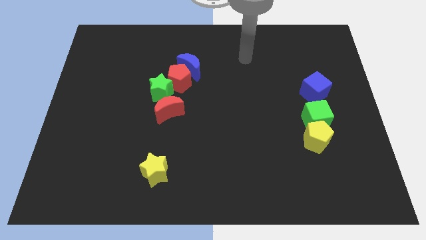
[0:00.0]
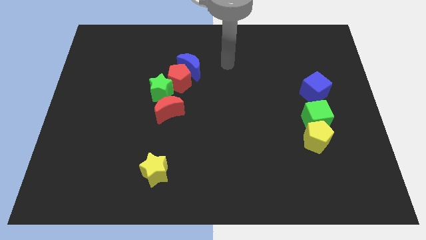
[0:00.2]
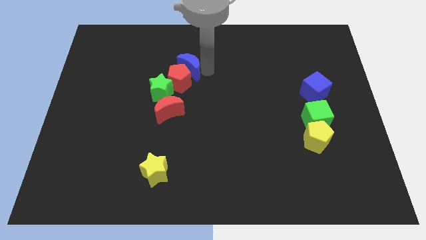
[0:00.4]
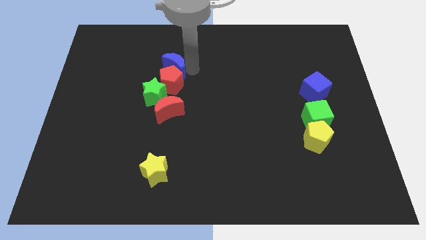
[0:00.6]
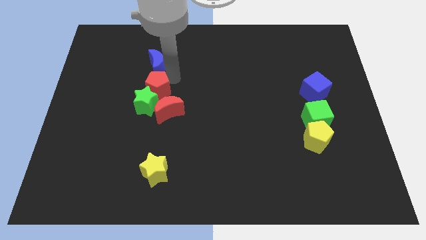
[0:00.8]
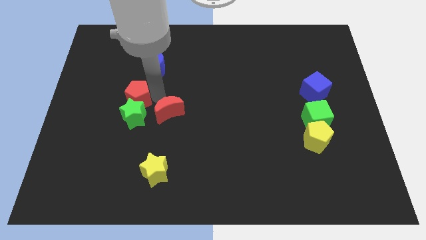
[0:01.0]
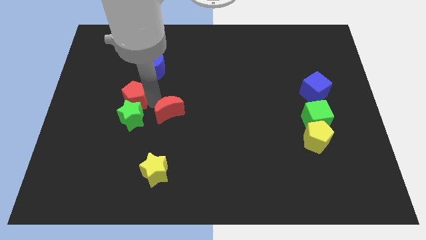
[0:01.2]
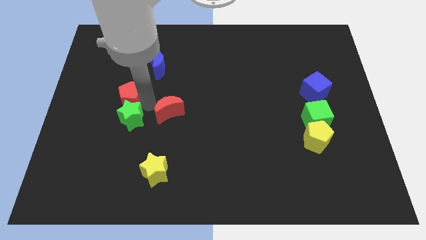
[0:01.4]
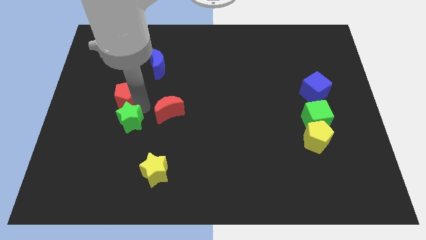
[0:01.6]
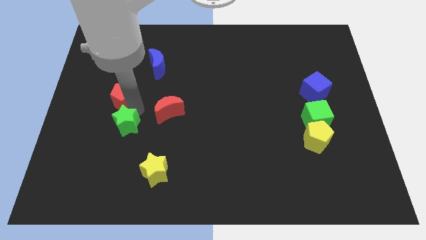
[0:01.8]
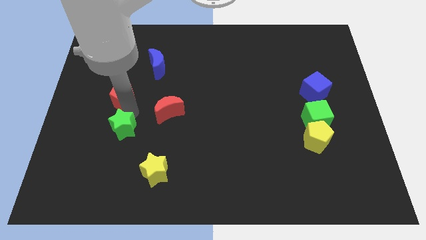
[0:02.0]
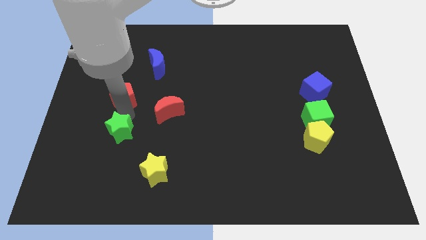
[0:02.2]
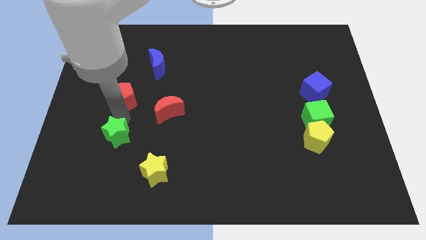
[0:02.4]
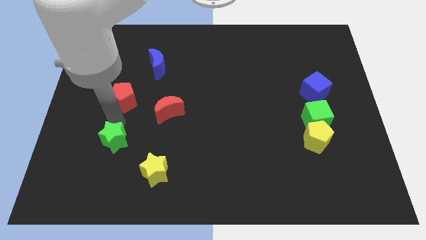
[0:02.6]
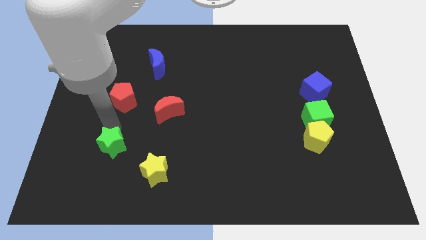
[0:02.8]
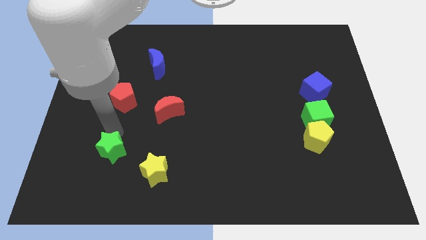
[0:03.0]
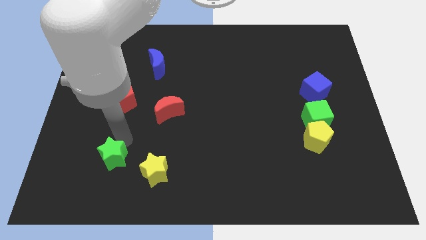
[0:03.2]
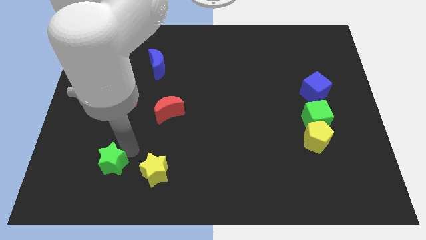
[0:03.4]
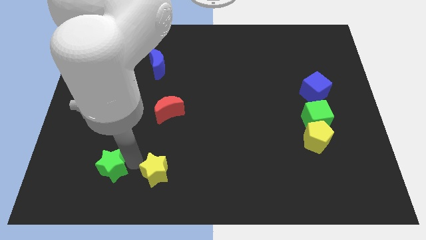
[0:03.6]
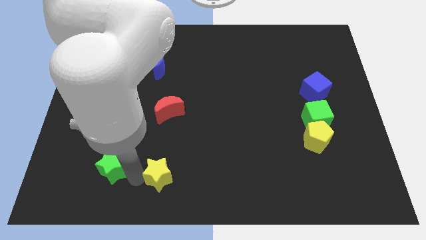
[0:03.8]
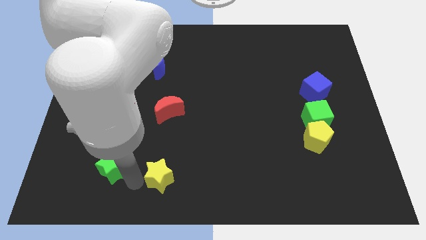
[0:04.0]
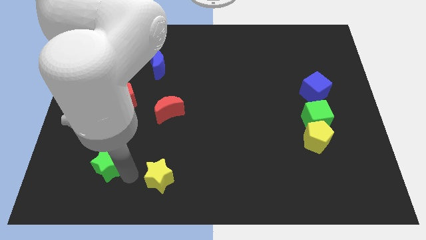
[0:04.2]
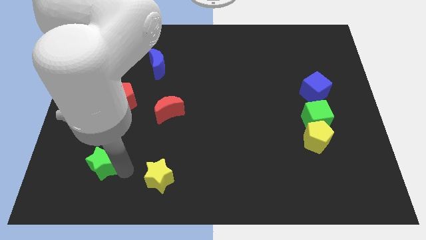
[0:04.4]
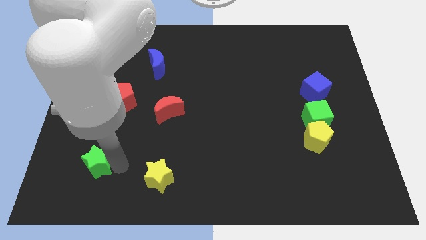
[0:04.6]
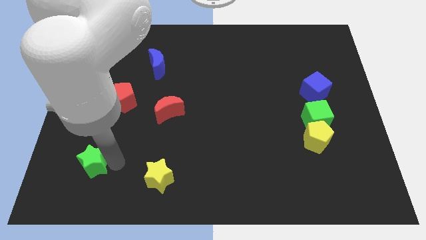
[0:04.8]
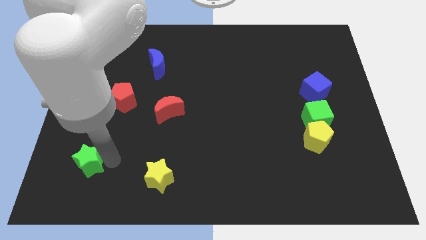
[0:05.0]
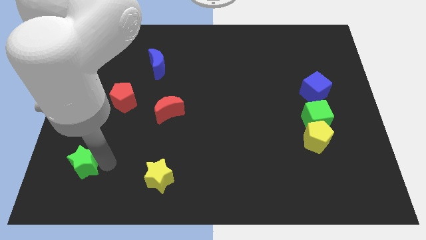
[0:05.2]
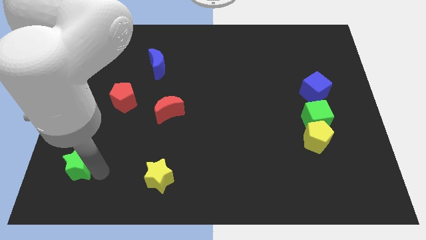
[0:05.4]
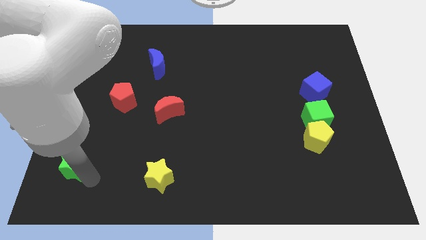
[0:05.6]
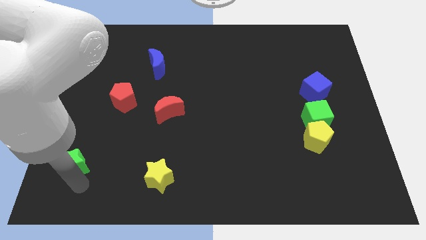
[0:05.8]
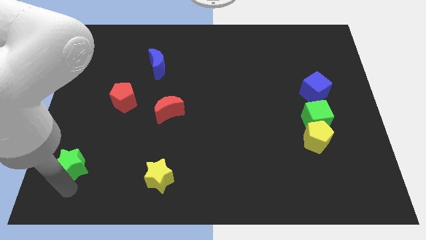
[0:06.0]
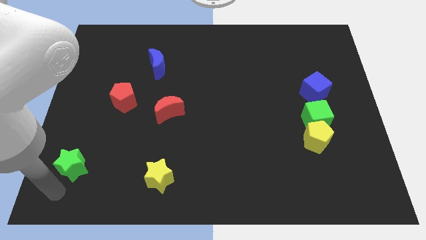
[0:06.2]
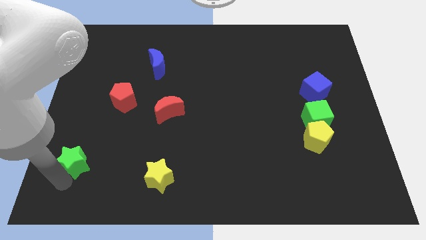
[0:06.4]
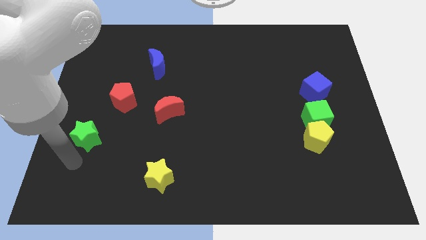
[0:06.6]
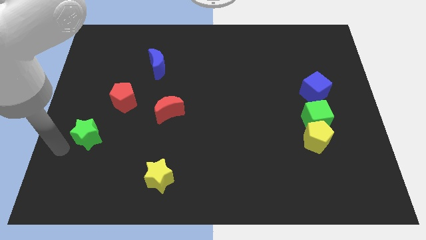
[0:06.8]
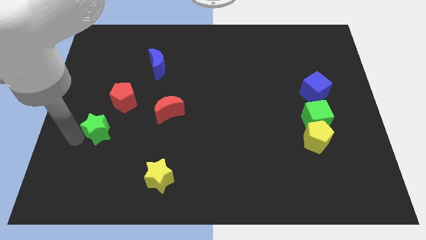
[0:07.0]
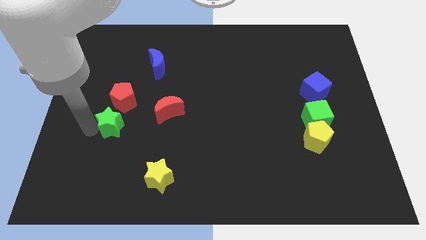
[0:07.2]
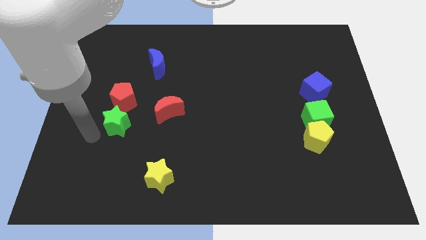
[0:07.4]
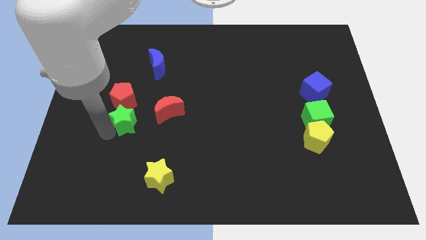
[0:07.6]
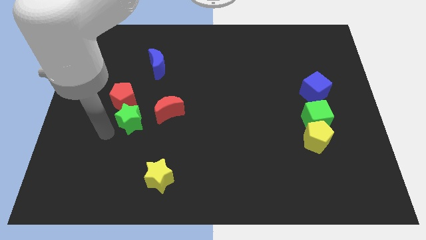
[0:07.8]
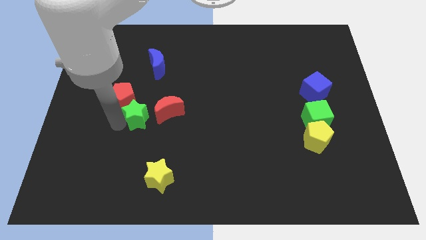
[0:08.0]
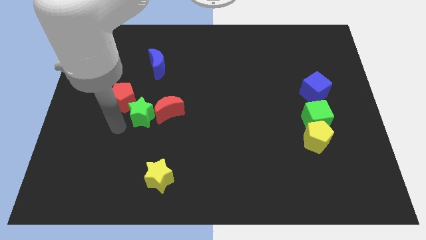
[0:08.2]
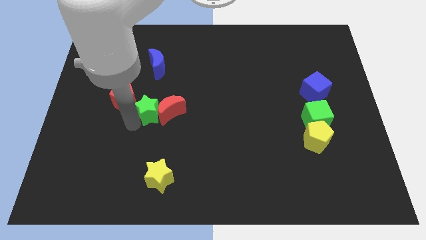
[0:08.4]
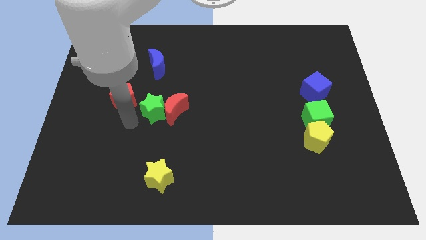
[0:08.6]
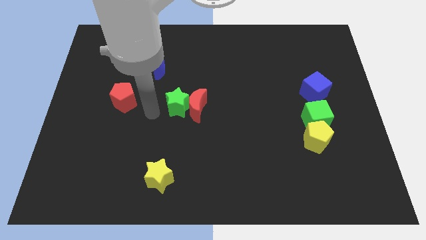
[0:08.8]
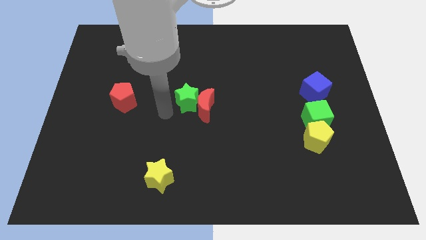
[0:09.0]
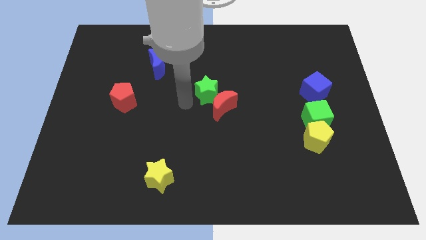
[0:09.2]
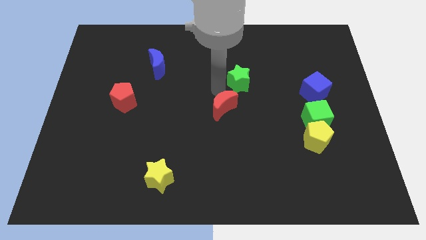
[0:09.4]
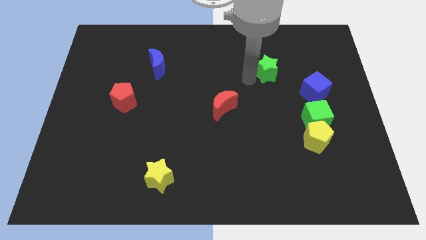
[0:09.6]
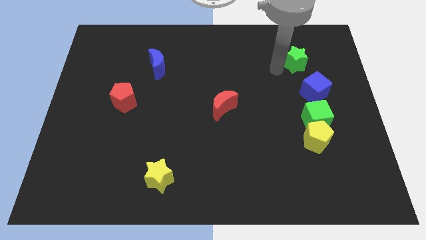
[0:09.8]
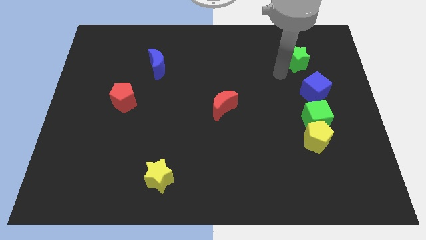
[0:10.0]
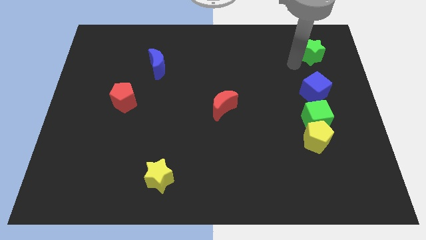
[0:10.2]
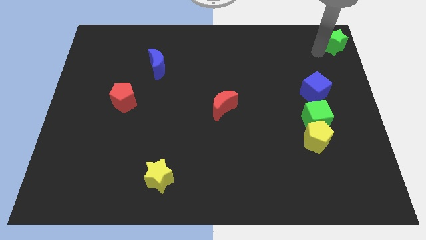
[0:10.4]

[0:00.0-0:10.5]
move the green star to the top right of the board

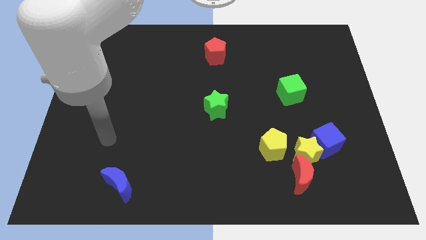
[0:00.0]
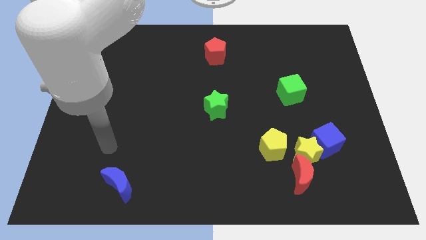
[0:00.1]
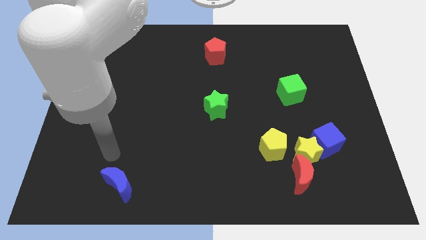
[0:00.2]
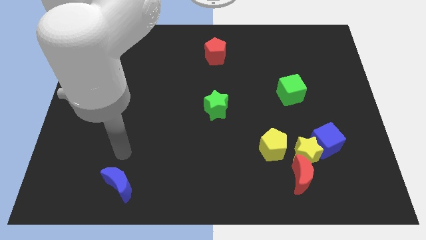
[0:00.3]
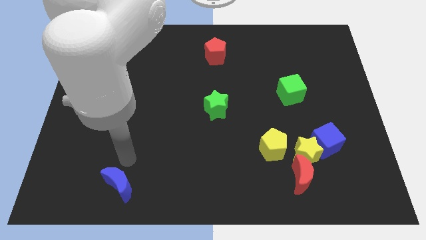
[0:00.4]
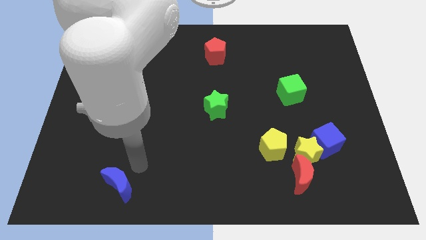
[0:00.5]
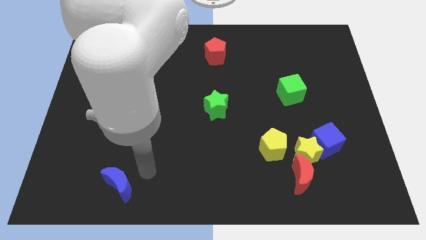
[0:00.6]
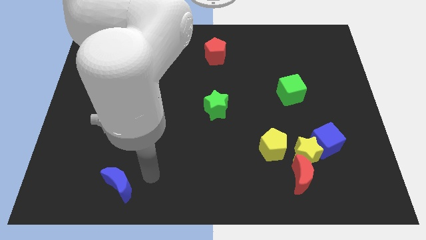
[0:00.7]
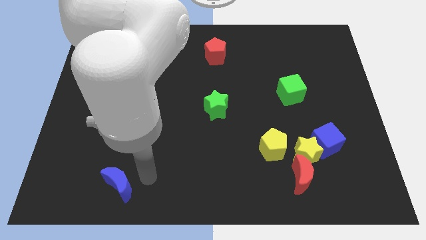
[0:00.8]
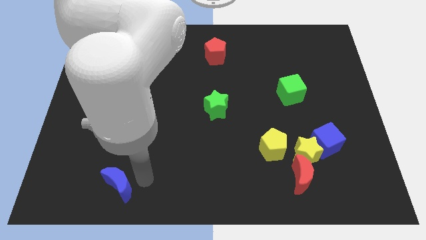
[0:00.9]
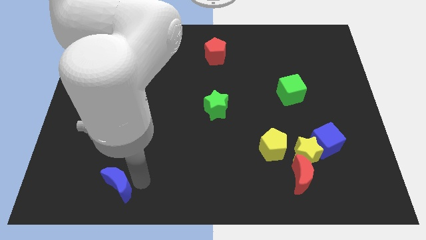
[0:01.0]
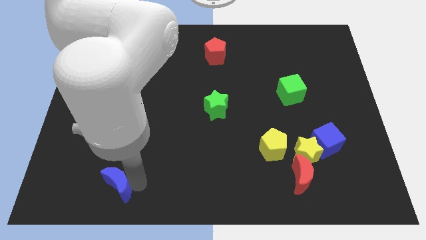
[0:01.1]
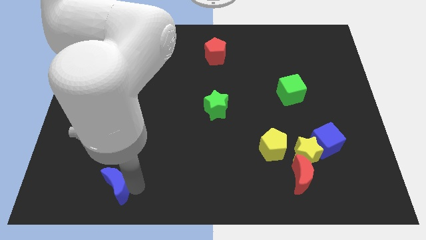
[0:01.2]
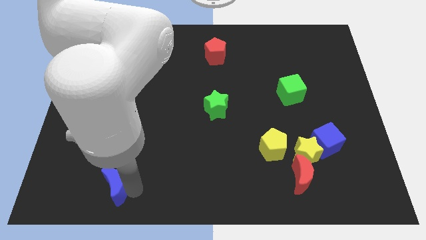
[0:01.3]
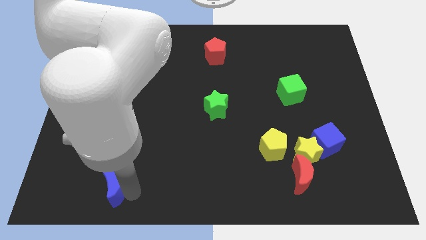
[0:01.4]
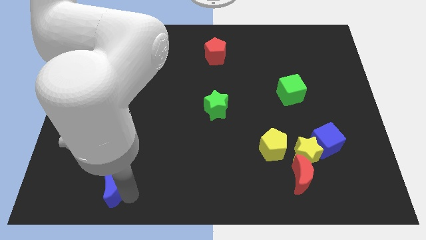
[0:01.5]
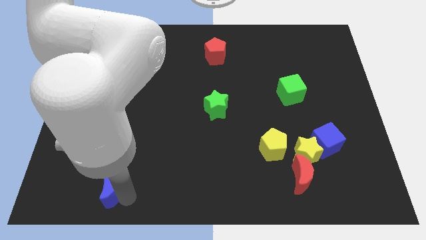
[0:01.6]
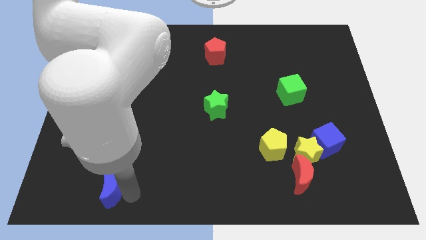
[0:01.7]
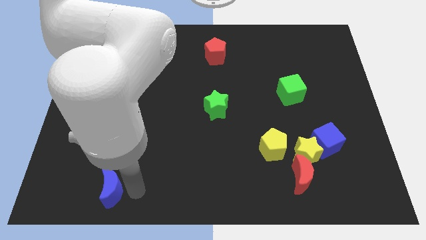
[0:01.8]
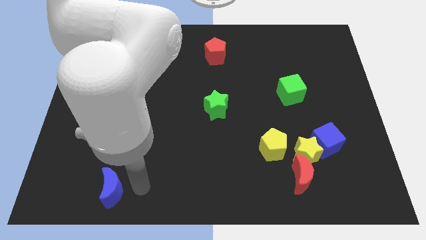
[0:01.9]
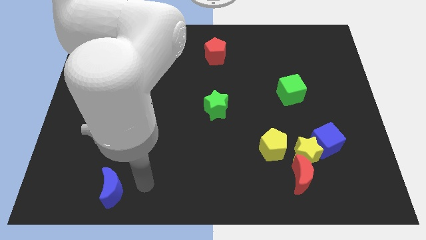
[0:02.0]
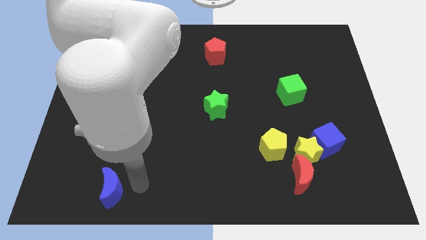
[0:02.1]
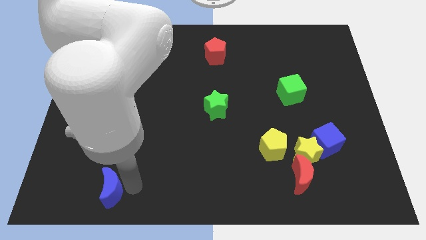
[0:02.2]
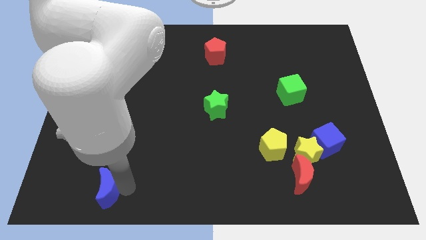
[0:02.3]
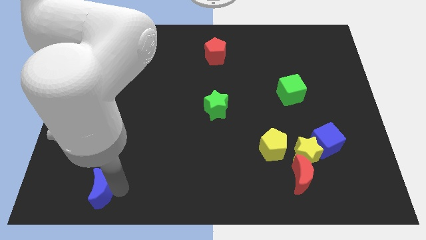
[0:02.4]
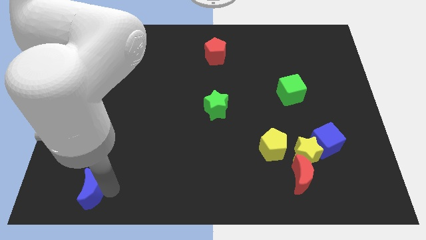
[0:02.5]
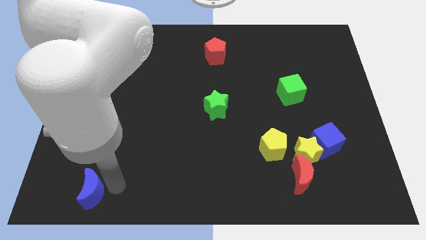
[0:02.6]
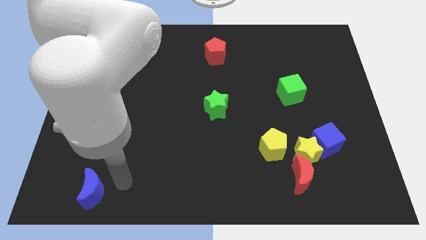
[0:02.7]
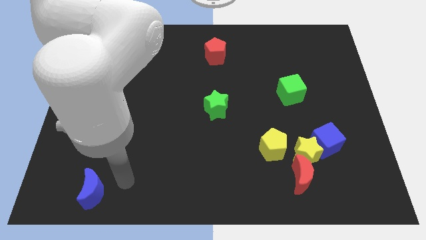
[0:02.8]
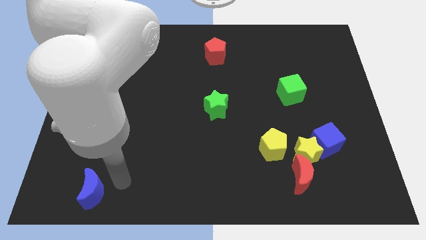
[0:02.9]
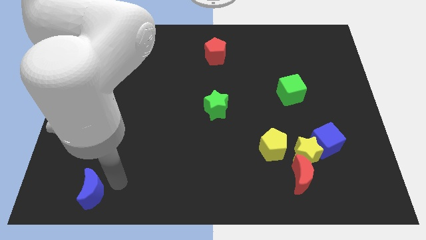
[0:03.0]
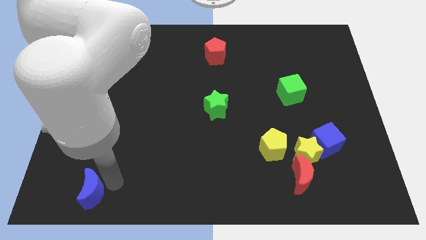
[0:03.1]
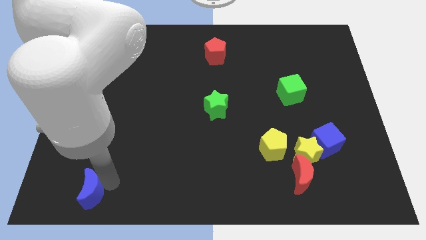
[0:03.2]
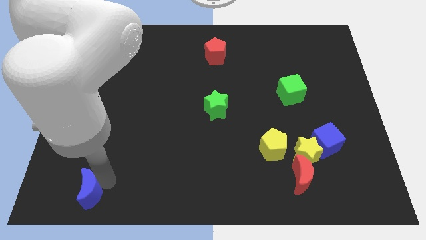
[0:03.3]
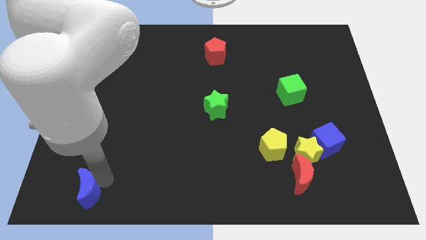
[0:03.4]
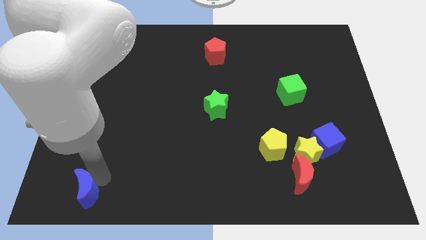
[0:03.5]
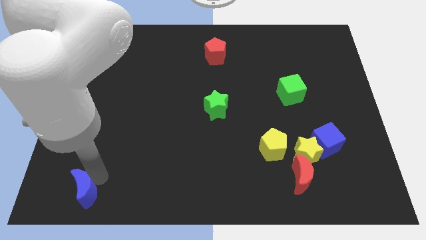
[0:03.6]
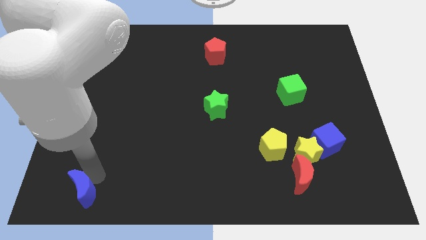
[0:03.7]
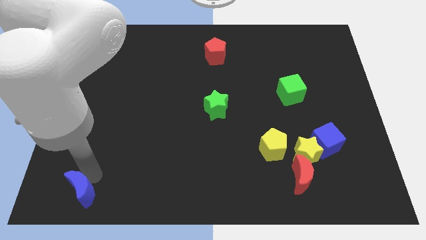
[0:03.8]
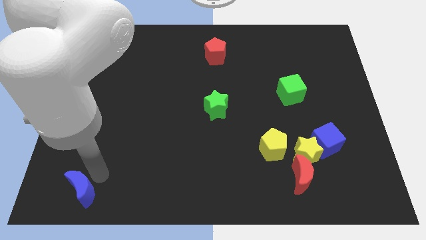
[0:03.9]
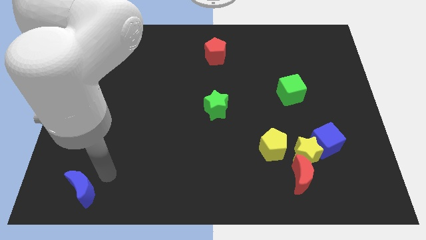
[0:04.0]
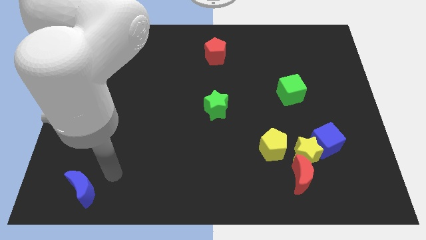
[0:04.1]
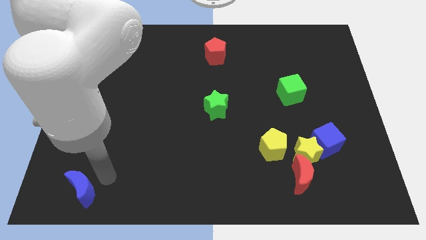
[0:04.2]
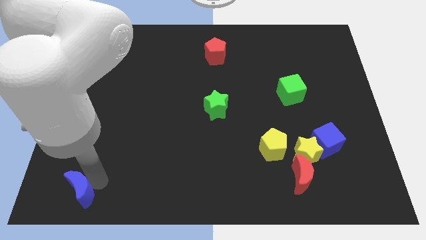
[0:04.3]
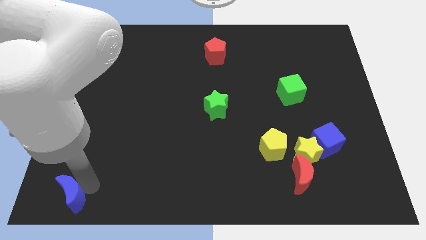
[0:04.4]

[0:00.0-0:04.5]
put the blue moon to the bottom left corner
